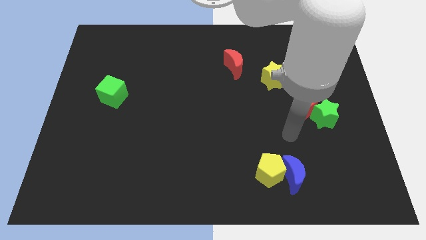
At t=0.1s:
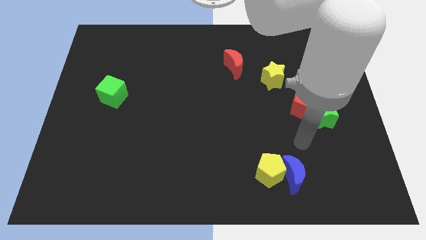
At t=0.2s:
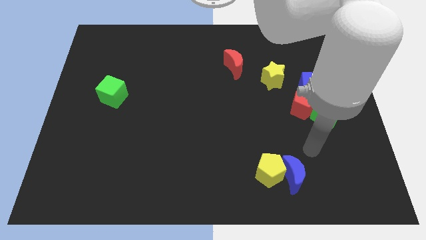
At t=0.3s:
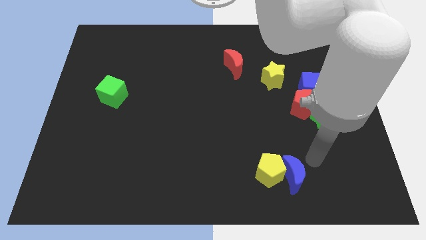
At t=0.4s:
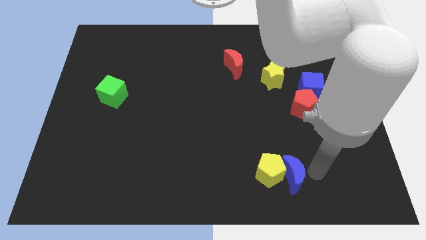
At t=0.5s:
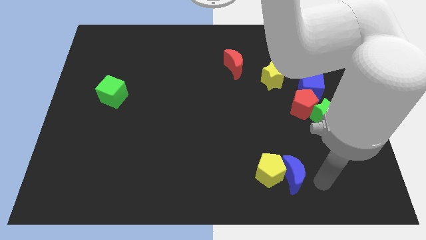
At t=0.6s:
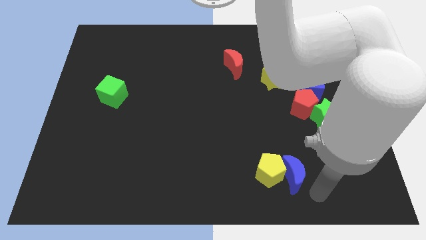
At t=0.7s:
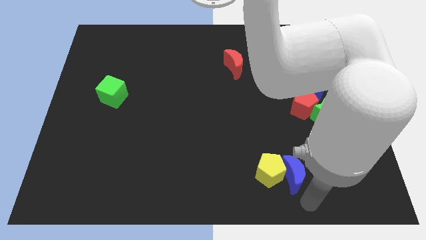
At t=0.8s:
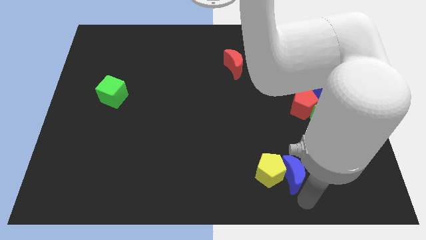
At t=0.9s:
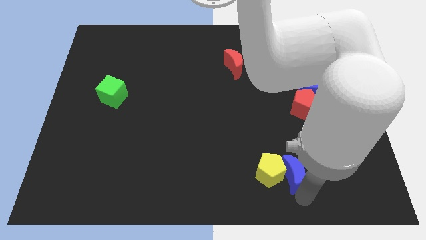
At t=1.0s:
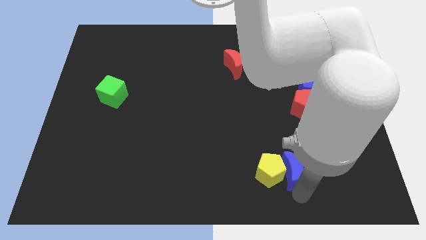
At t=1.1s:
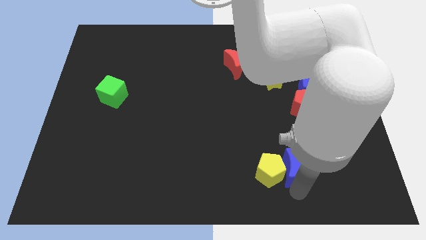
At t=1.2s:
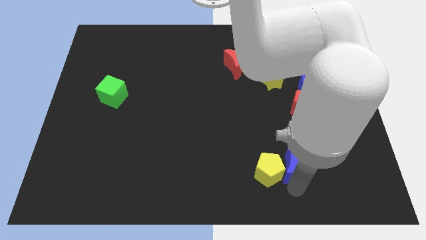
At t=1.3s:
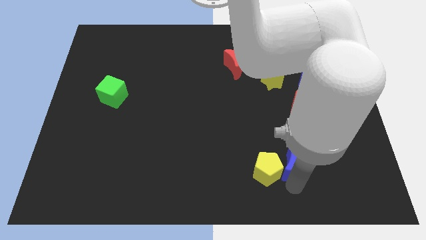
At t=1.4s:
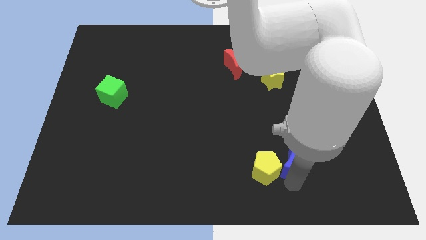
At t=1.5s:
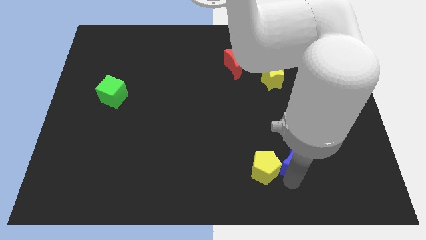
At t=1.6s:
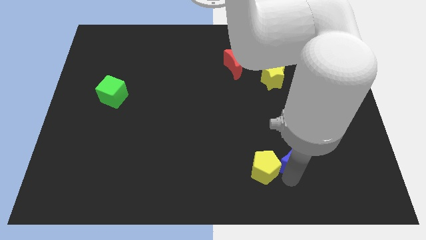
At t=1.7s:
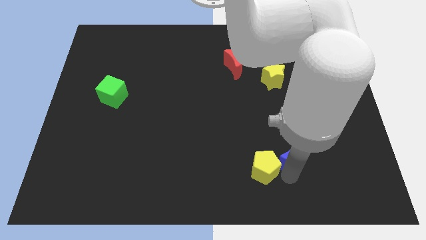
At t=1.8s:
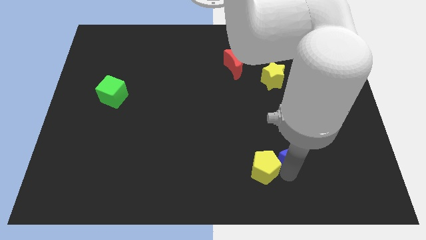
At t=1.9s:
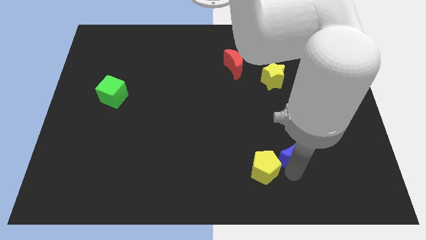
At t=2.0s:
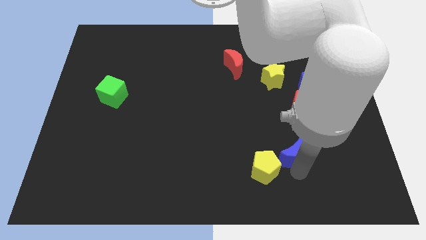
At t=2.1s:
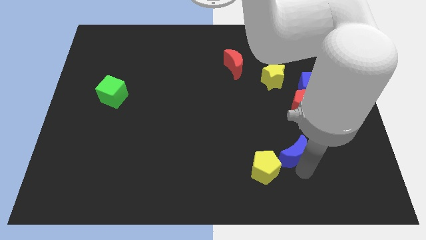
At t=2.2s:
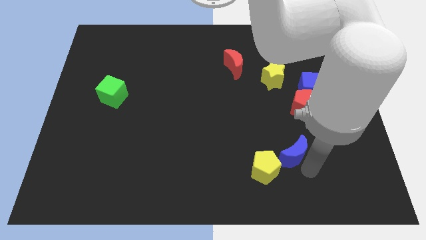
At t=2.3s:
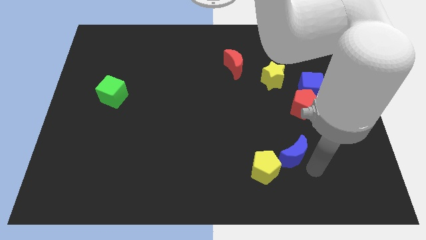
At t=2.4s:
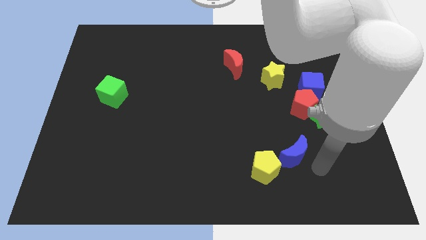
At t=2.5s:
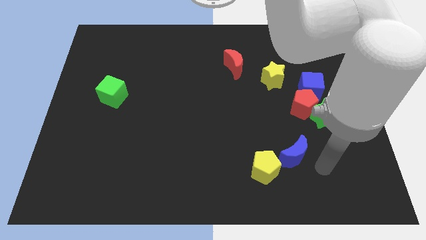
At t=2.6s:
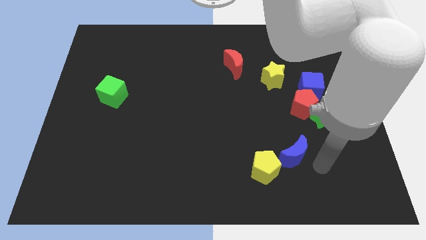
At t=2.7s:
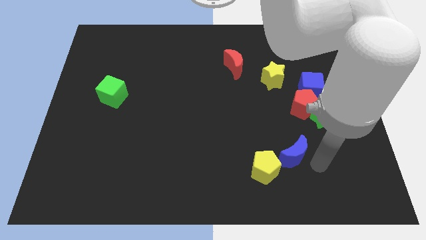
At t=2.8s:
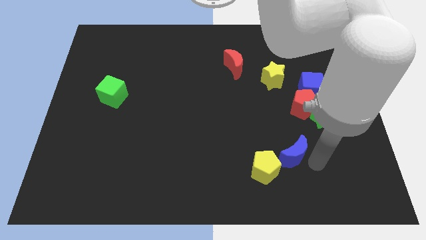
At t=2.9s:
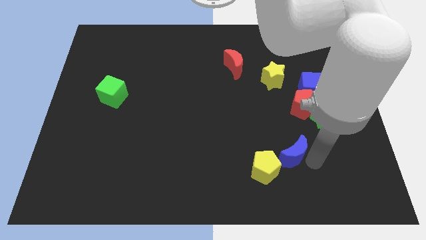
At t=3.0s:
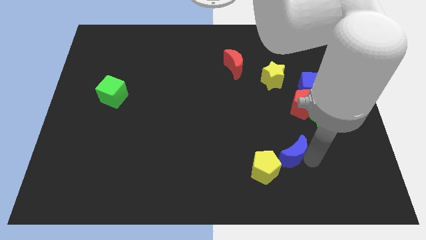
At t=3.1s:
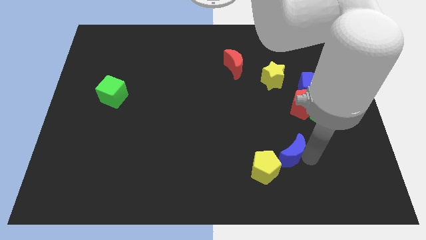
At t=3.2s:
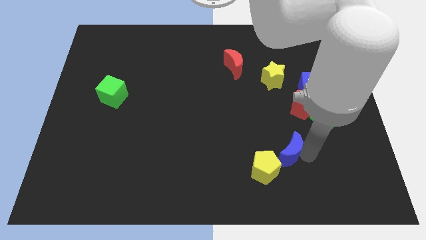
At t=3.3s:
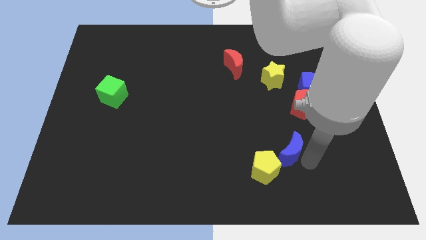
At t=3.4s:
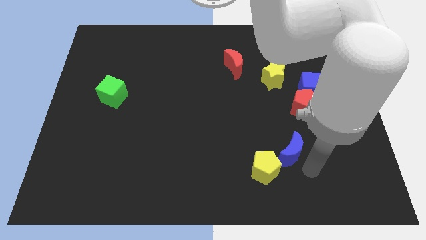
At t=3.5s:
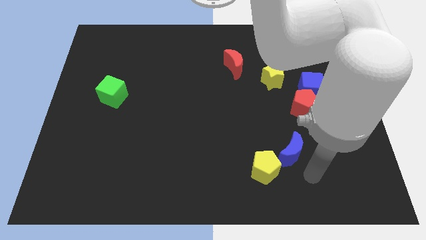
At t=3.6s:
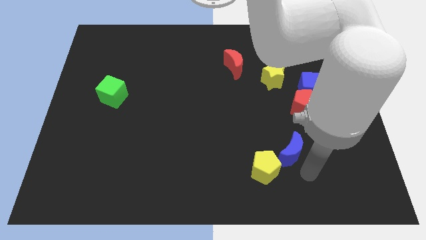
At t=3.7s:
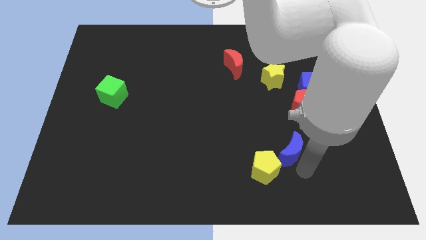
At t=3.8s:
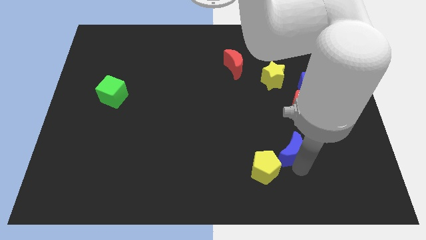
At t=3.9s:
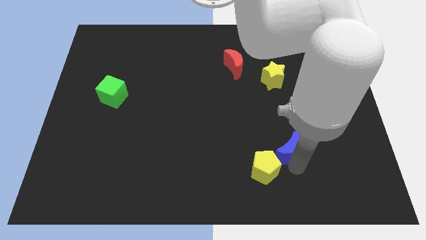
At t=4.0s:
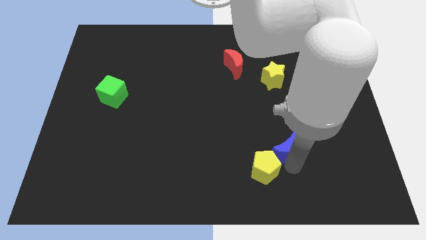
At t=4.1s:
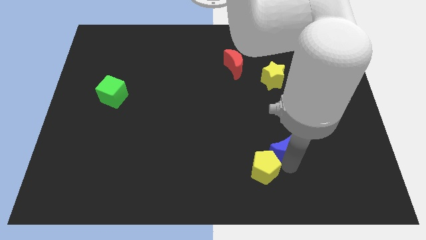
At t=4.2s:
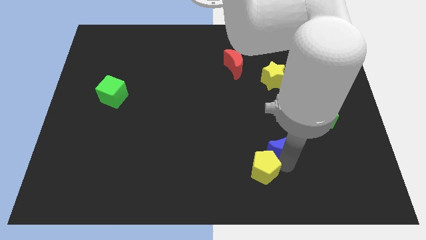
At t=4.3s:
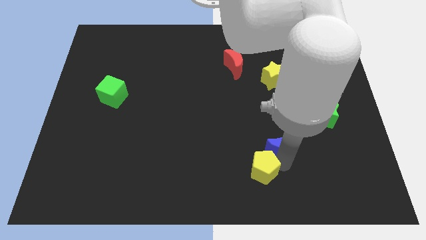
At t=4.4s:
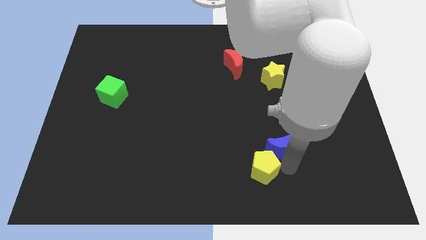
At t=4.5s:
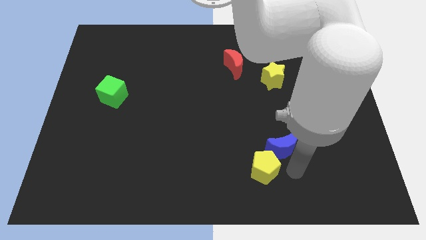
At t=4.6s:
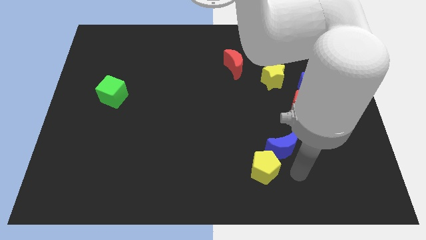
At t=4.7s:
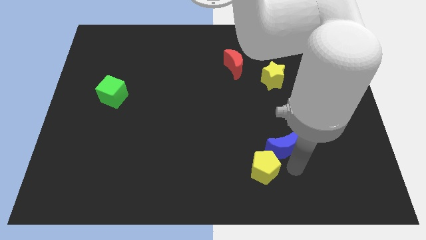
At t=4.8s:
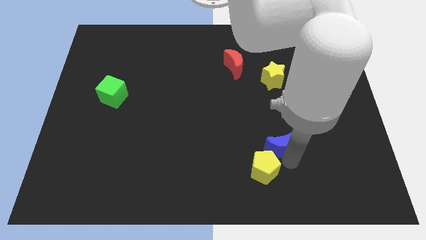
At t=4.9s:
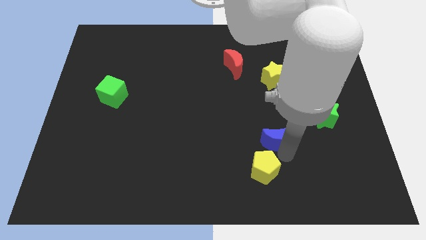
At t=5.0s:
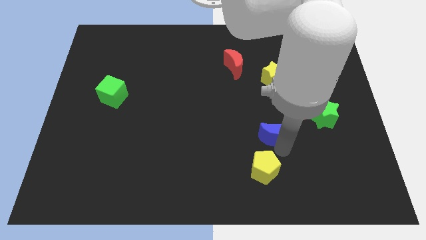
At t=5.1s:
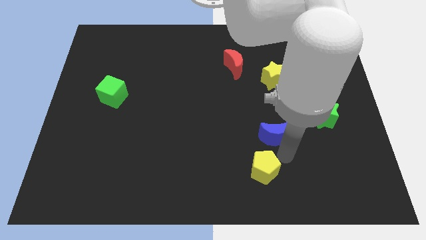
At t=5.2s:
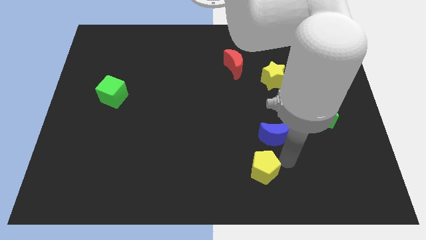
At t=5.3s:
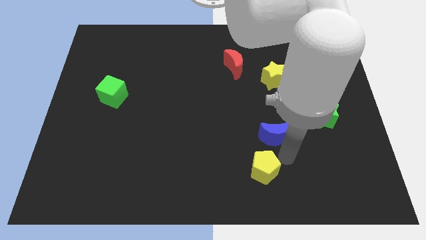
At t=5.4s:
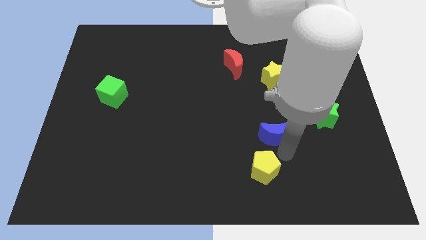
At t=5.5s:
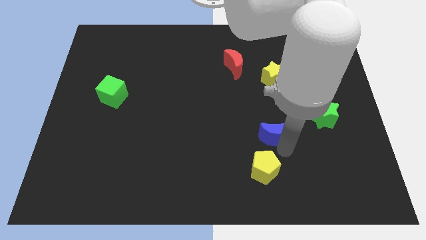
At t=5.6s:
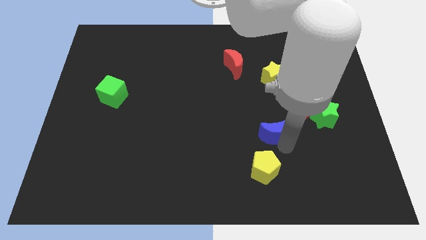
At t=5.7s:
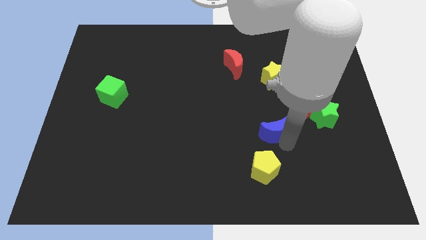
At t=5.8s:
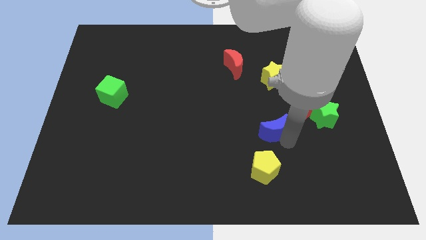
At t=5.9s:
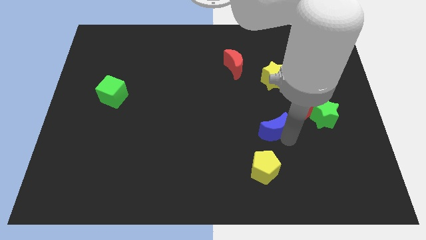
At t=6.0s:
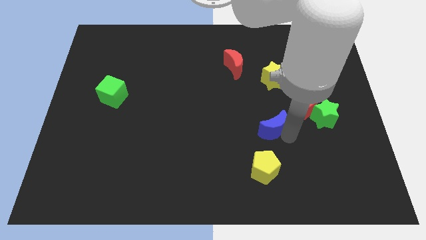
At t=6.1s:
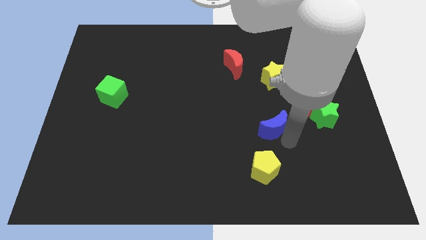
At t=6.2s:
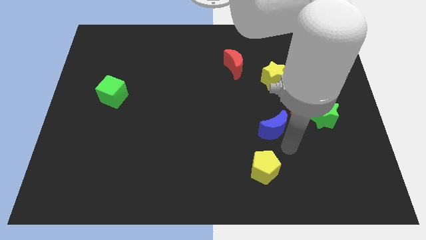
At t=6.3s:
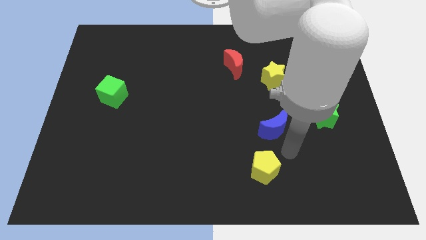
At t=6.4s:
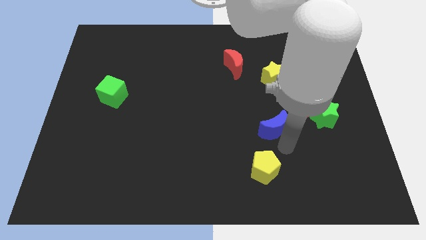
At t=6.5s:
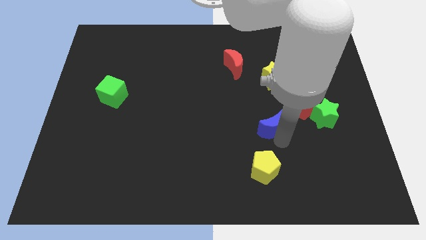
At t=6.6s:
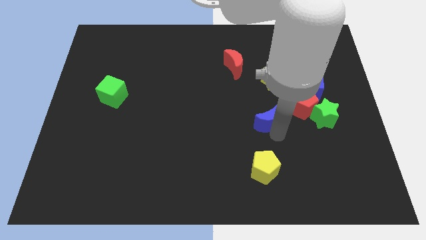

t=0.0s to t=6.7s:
slide the blue moon just left of the red pentagon

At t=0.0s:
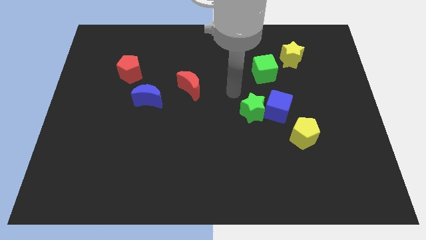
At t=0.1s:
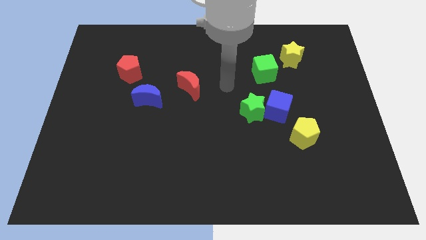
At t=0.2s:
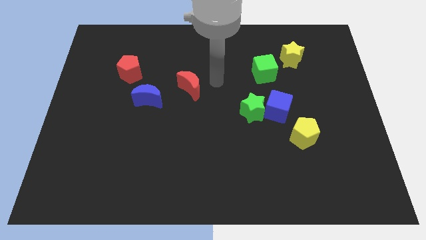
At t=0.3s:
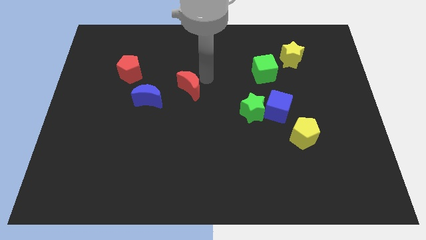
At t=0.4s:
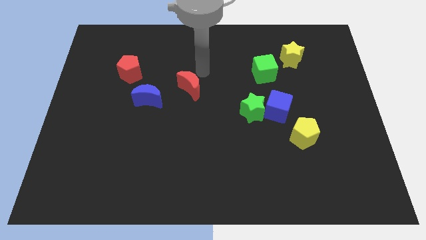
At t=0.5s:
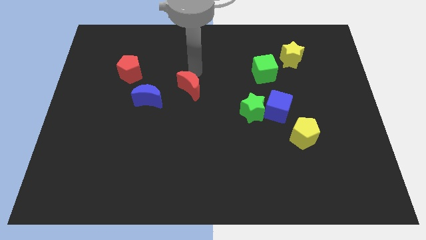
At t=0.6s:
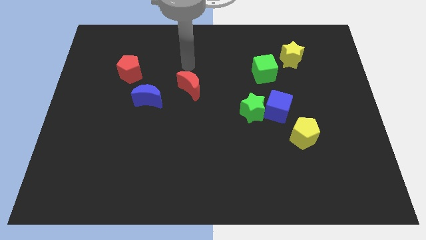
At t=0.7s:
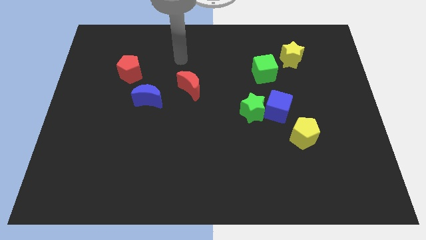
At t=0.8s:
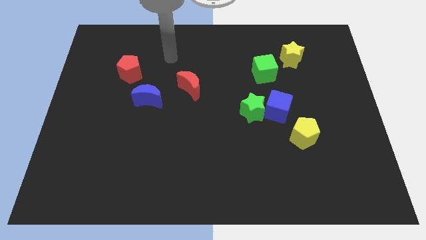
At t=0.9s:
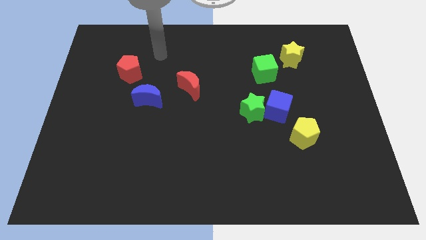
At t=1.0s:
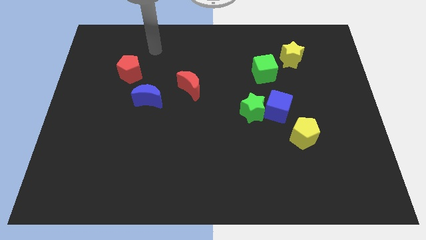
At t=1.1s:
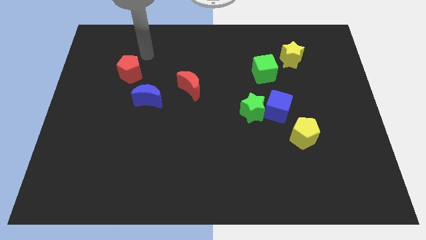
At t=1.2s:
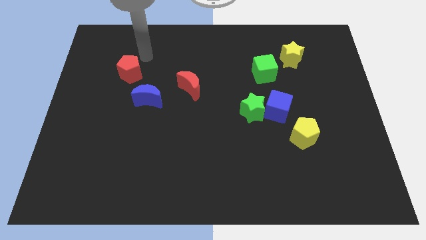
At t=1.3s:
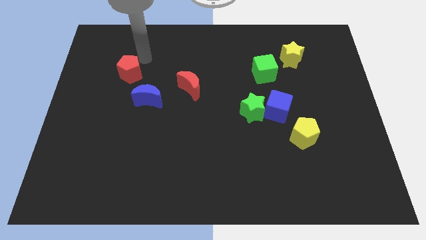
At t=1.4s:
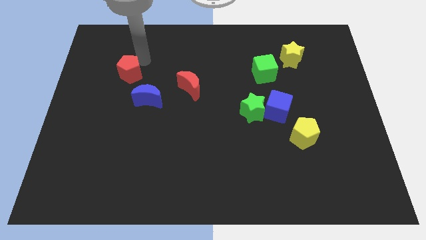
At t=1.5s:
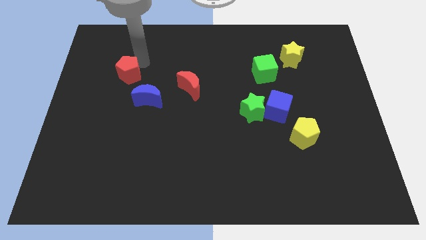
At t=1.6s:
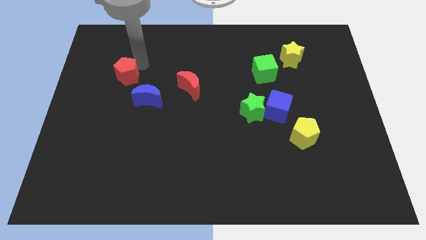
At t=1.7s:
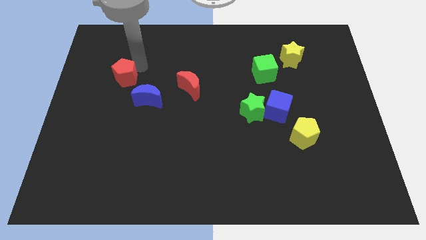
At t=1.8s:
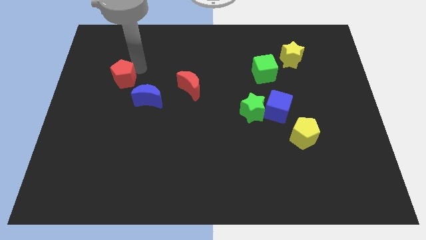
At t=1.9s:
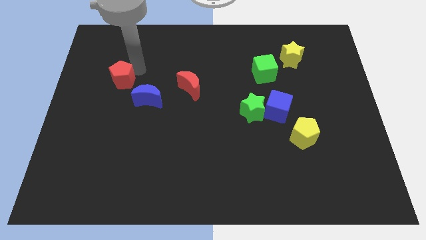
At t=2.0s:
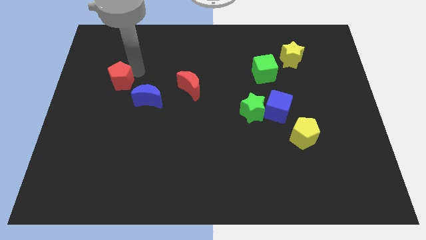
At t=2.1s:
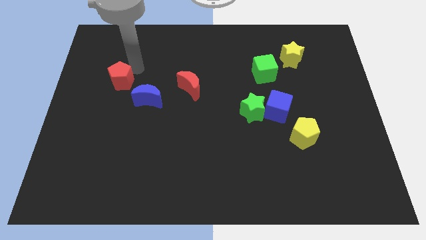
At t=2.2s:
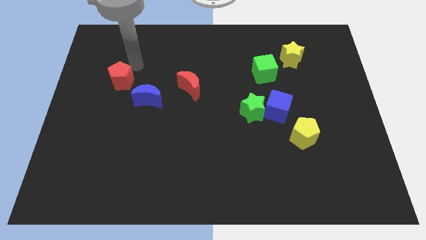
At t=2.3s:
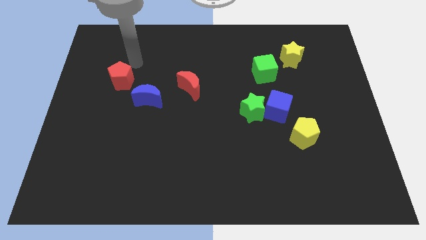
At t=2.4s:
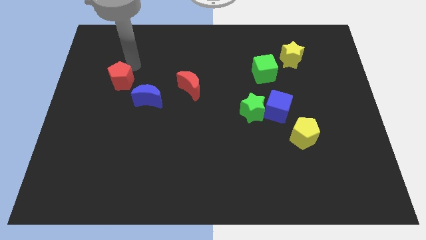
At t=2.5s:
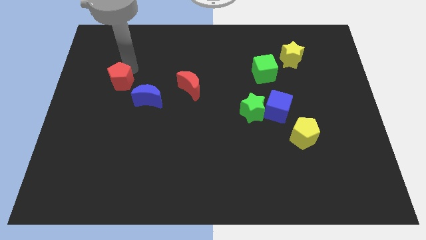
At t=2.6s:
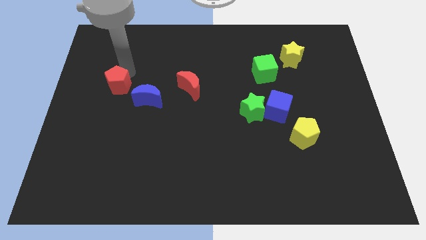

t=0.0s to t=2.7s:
slide the red pentagon just left of the blue moon
